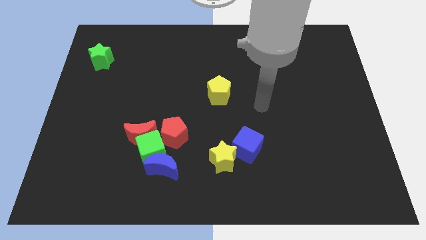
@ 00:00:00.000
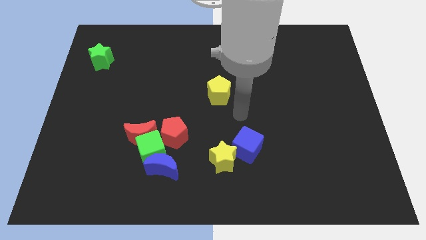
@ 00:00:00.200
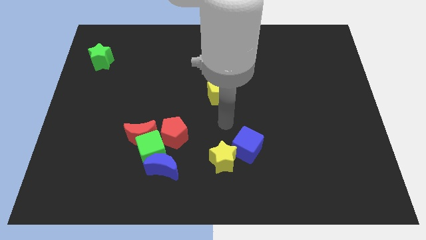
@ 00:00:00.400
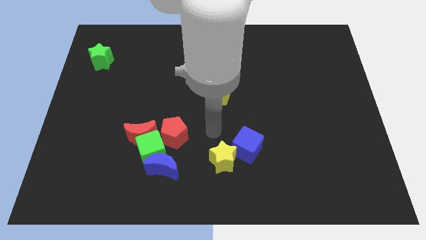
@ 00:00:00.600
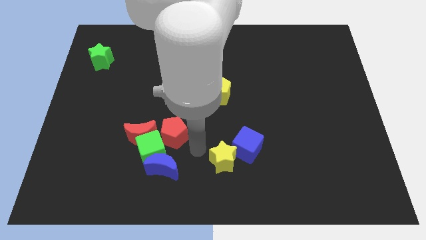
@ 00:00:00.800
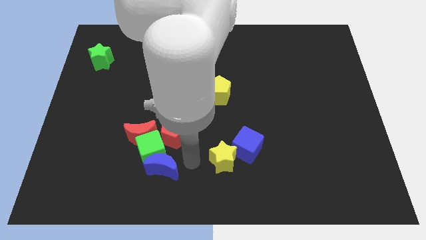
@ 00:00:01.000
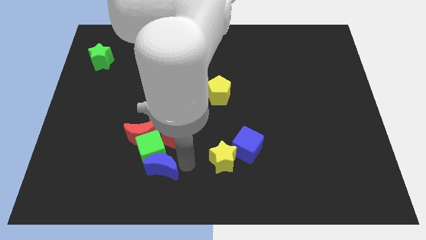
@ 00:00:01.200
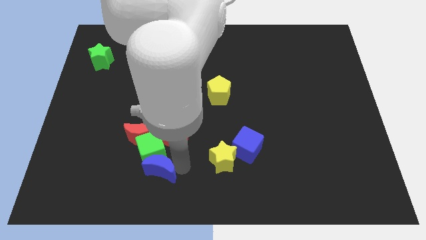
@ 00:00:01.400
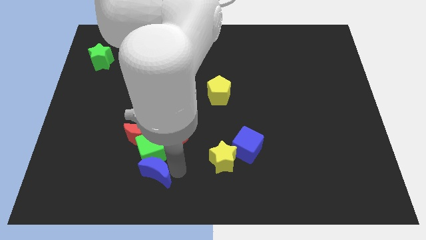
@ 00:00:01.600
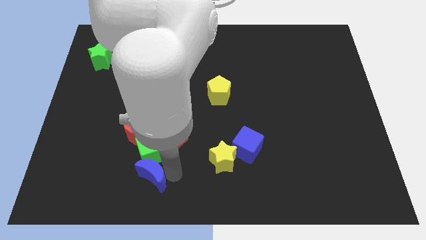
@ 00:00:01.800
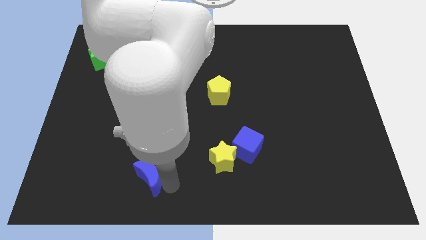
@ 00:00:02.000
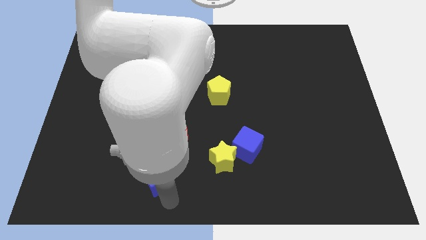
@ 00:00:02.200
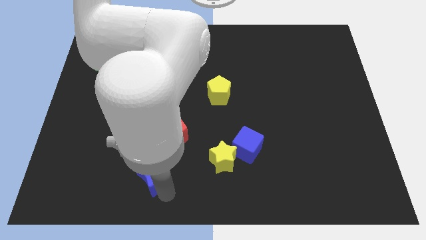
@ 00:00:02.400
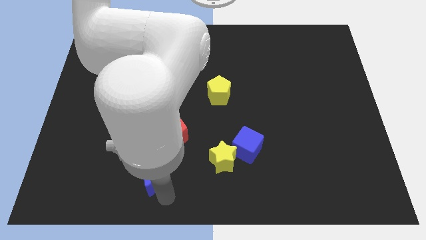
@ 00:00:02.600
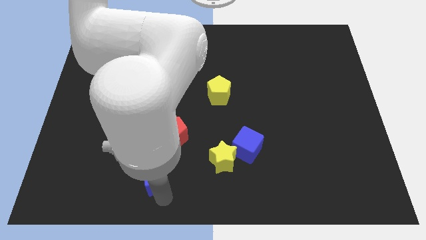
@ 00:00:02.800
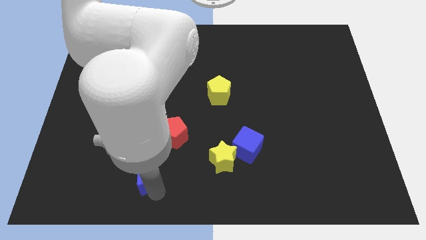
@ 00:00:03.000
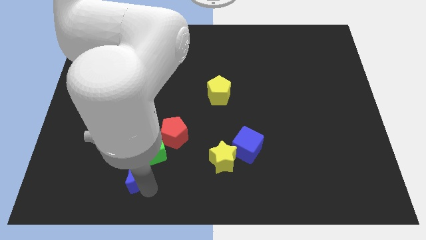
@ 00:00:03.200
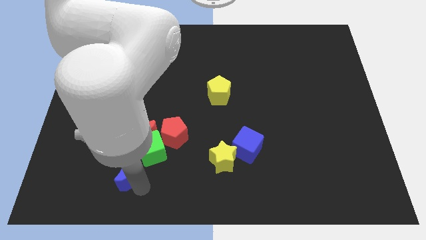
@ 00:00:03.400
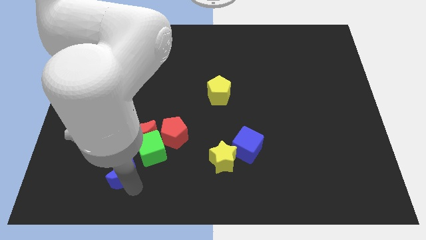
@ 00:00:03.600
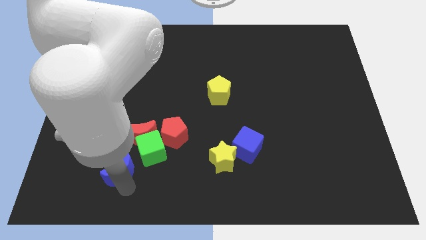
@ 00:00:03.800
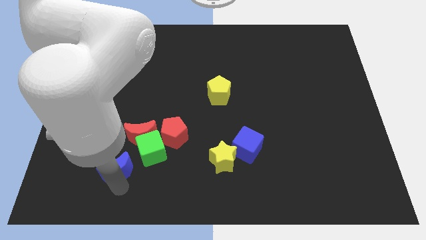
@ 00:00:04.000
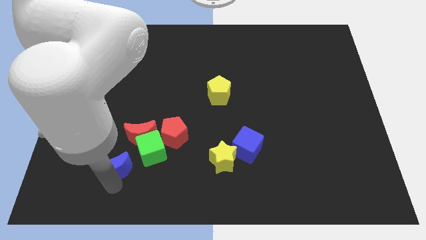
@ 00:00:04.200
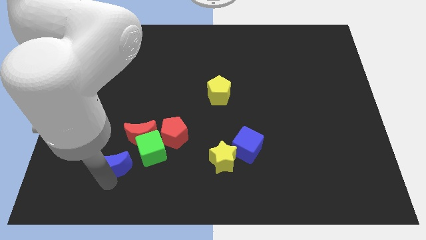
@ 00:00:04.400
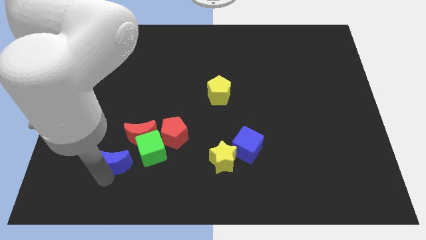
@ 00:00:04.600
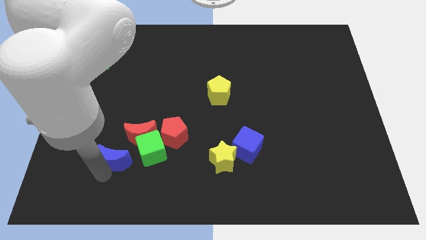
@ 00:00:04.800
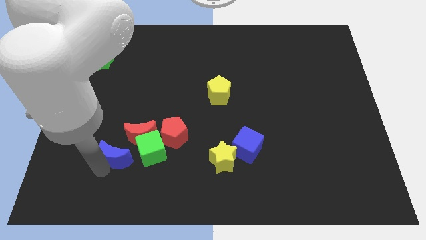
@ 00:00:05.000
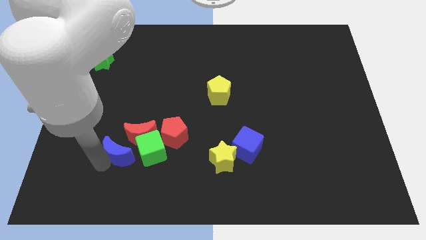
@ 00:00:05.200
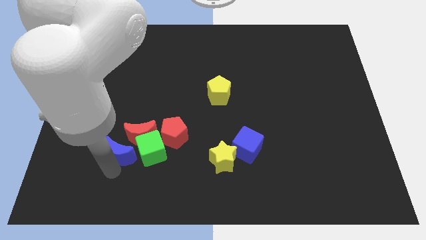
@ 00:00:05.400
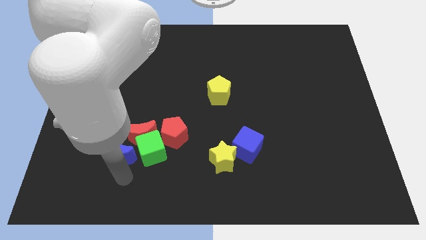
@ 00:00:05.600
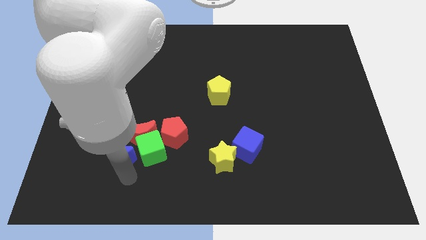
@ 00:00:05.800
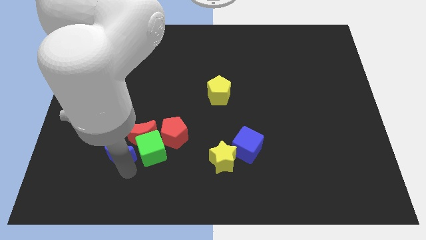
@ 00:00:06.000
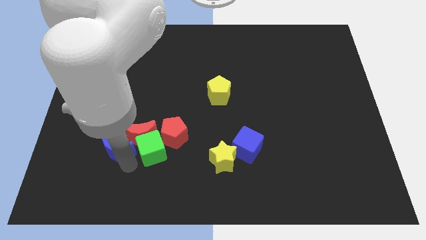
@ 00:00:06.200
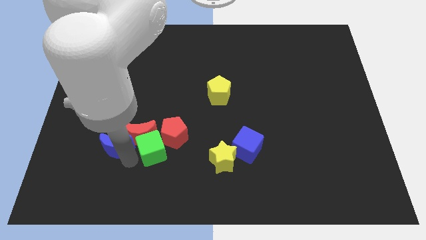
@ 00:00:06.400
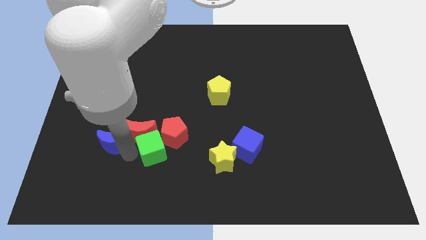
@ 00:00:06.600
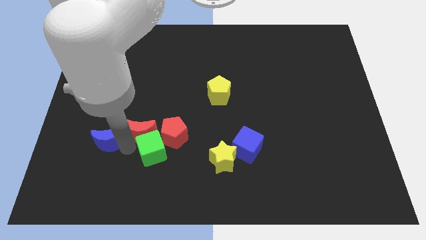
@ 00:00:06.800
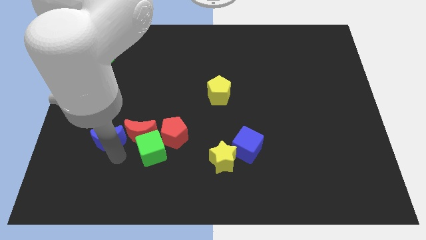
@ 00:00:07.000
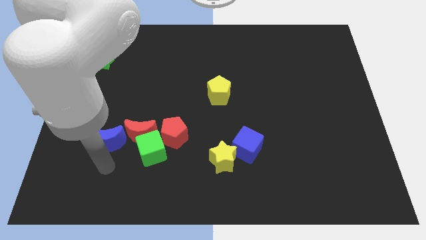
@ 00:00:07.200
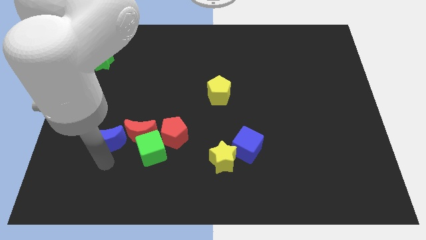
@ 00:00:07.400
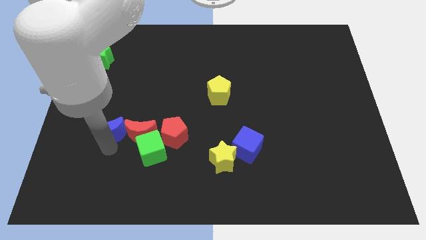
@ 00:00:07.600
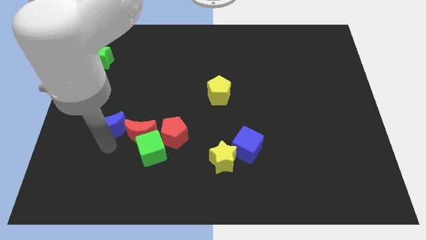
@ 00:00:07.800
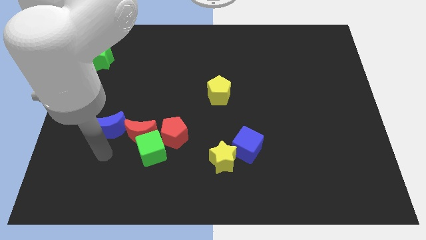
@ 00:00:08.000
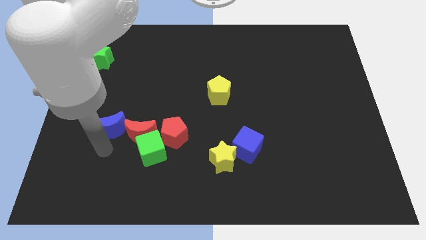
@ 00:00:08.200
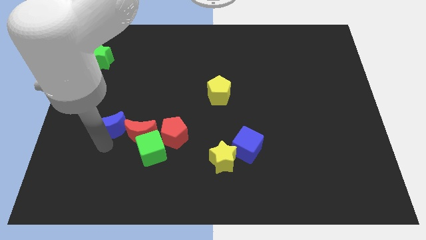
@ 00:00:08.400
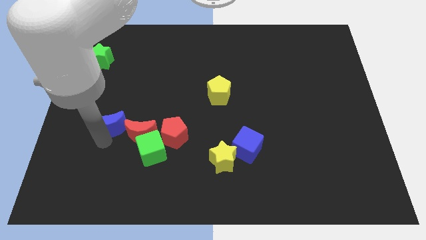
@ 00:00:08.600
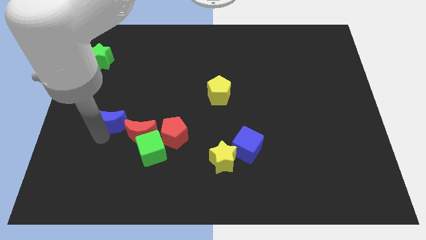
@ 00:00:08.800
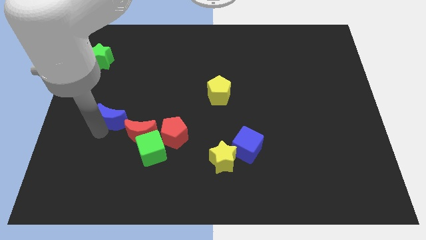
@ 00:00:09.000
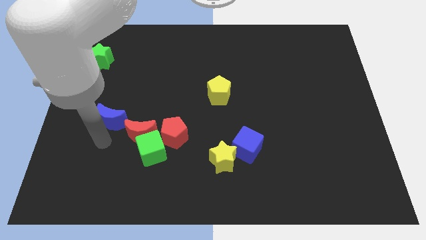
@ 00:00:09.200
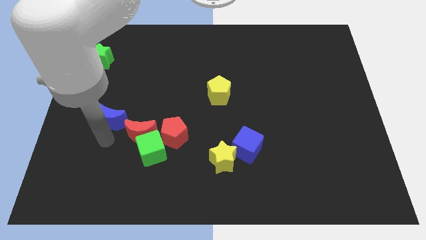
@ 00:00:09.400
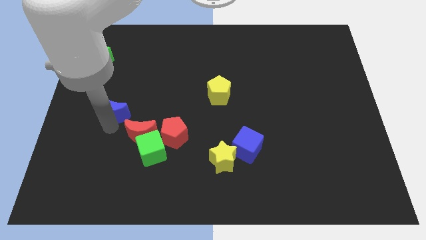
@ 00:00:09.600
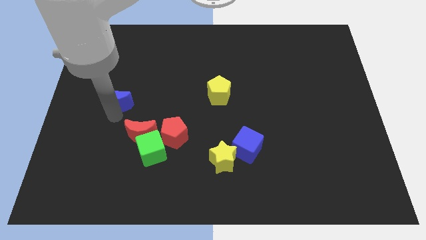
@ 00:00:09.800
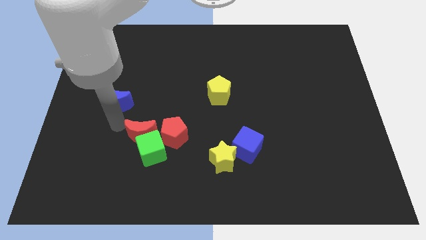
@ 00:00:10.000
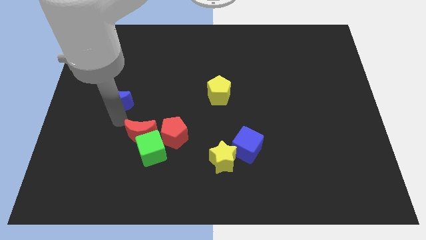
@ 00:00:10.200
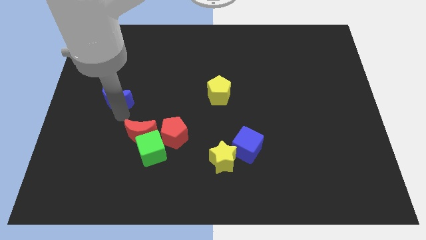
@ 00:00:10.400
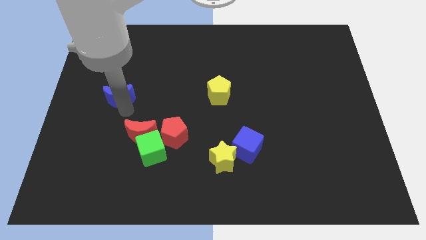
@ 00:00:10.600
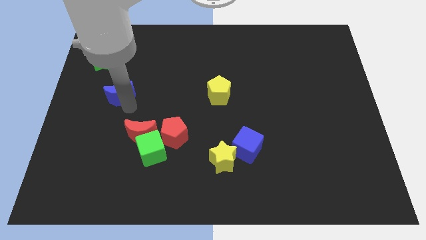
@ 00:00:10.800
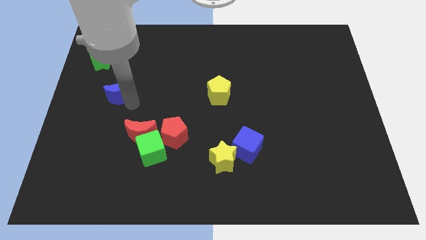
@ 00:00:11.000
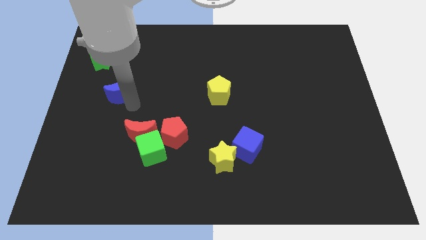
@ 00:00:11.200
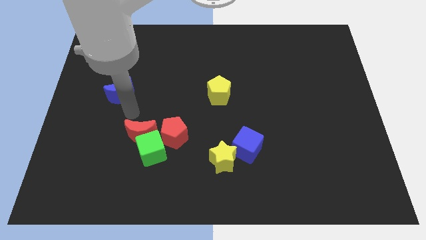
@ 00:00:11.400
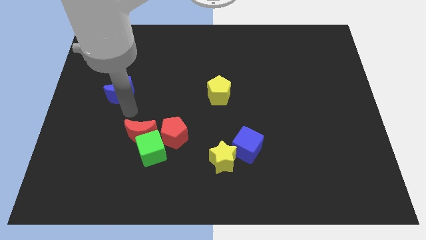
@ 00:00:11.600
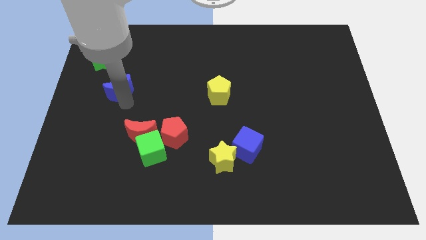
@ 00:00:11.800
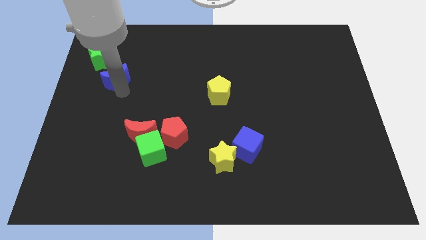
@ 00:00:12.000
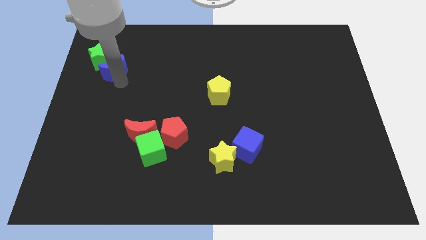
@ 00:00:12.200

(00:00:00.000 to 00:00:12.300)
push the blue moon close to the green star
